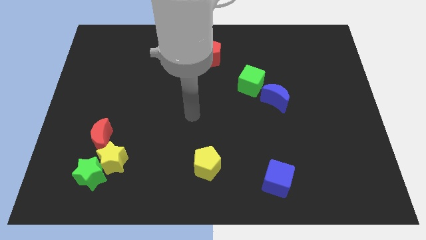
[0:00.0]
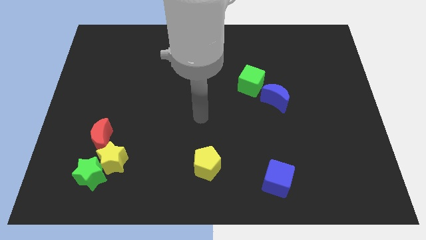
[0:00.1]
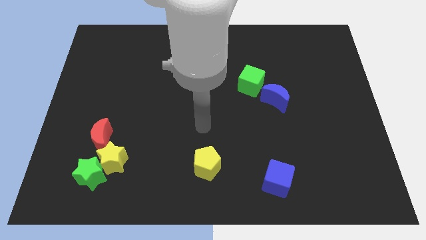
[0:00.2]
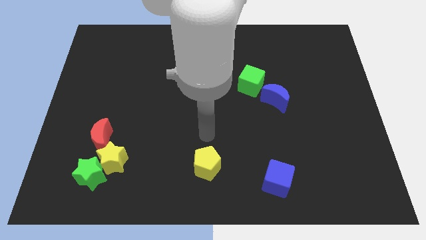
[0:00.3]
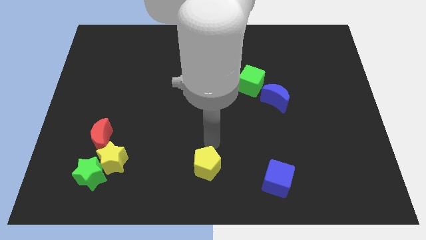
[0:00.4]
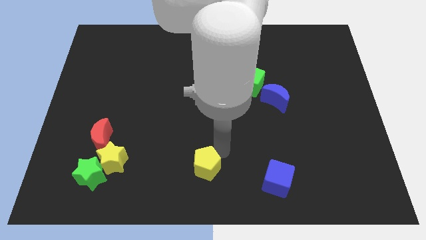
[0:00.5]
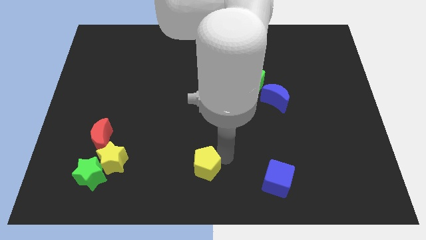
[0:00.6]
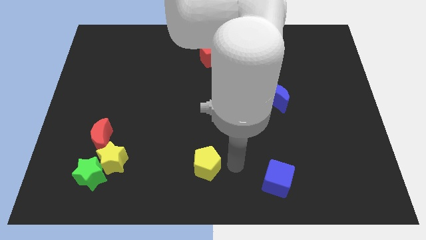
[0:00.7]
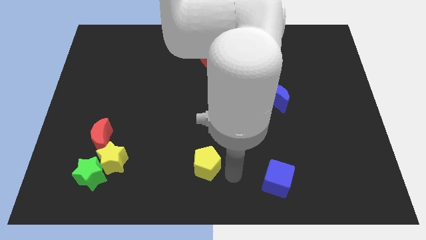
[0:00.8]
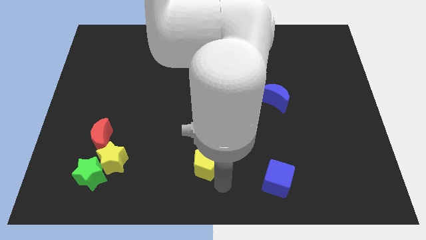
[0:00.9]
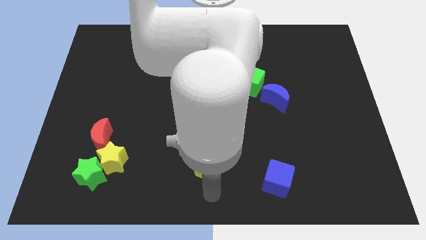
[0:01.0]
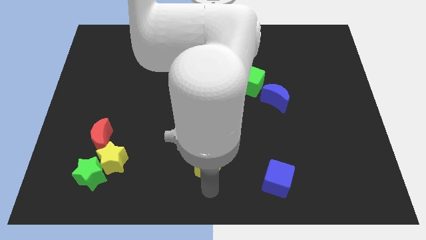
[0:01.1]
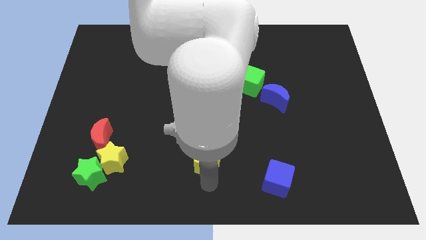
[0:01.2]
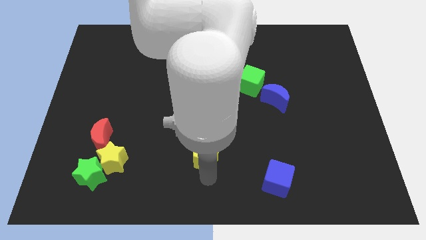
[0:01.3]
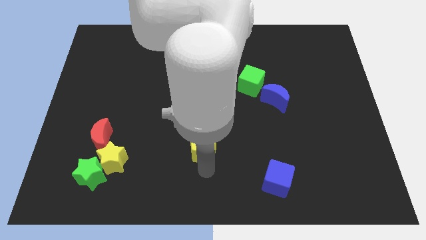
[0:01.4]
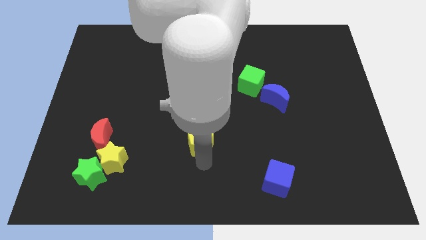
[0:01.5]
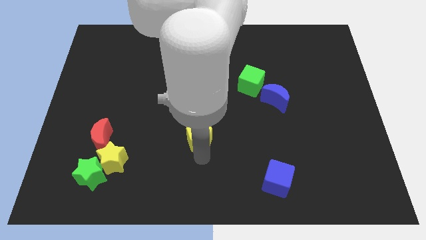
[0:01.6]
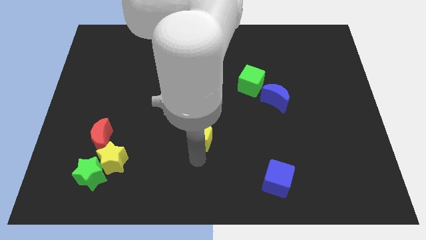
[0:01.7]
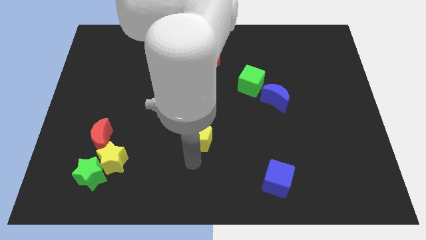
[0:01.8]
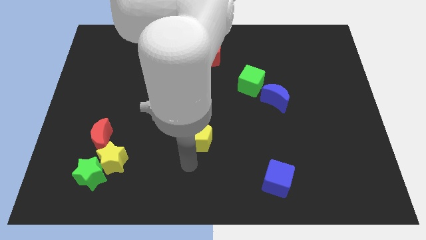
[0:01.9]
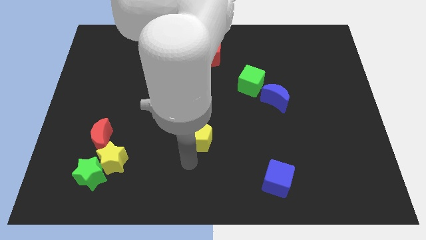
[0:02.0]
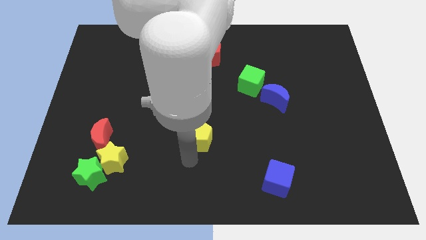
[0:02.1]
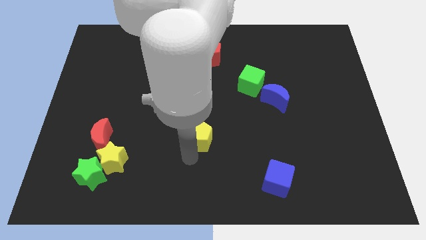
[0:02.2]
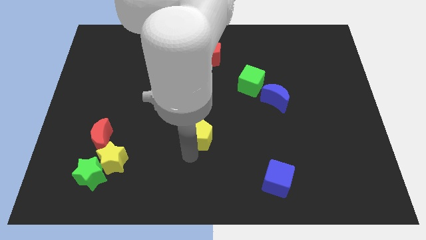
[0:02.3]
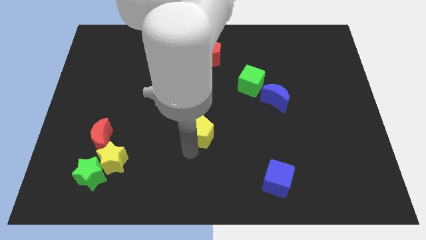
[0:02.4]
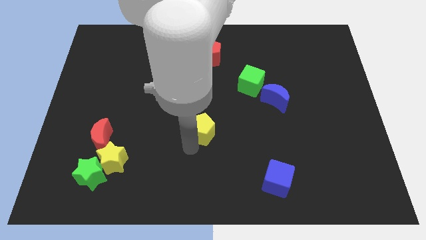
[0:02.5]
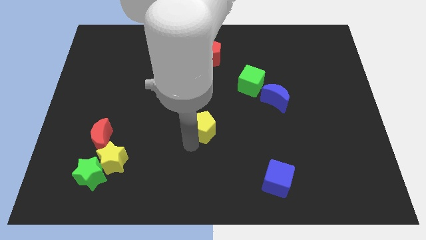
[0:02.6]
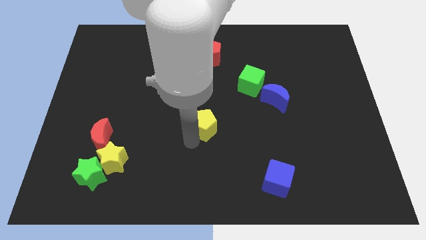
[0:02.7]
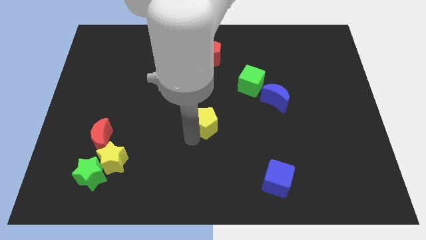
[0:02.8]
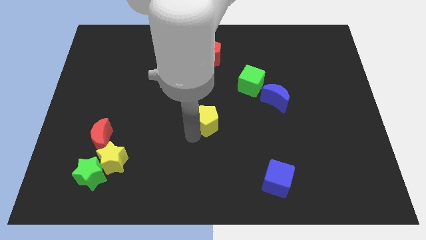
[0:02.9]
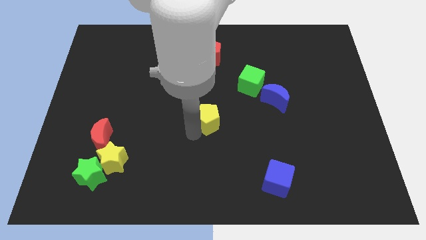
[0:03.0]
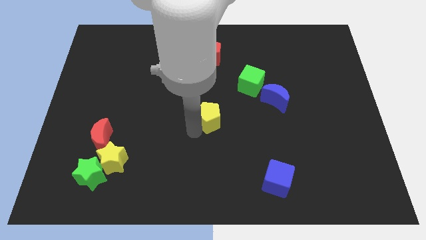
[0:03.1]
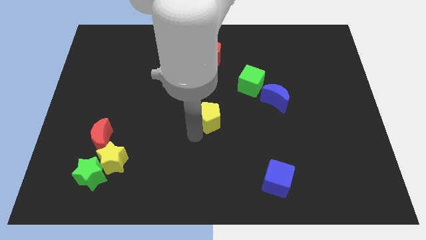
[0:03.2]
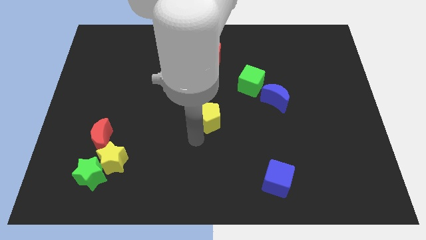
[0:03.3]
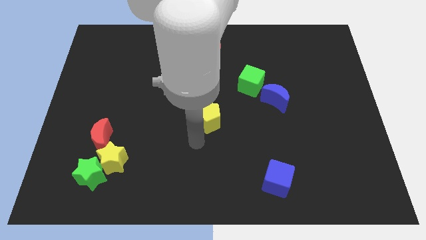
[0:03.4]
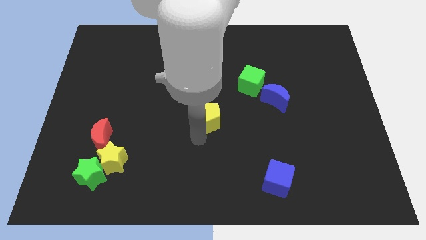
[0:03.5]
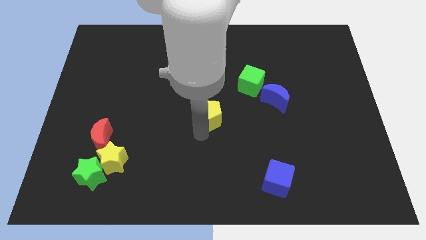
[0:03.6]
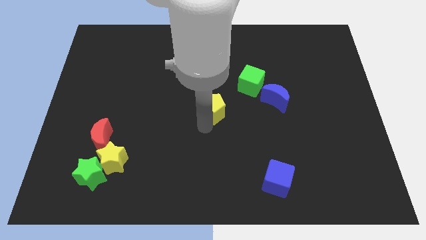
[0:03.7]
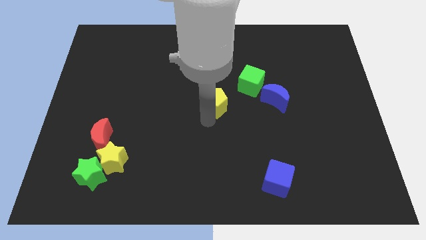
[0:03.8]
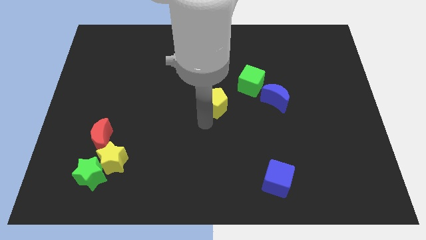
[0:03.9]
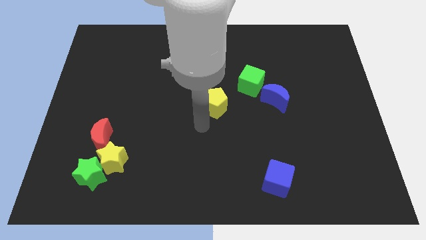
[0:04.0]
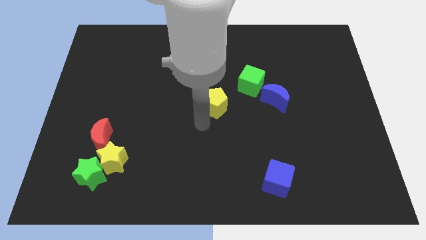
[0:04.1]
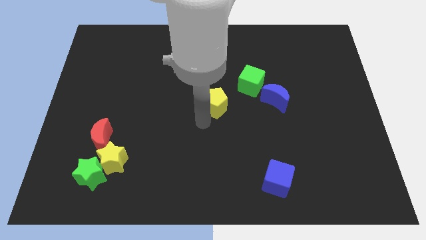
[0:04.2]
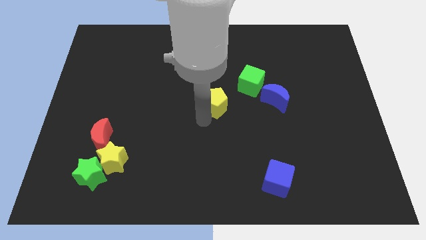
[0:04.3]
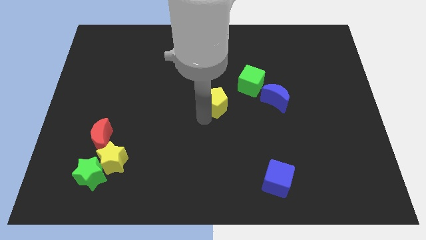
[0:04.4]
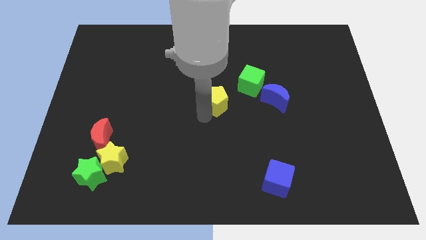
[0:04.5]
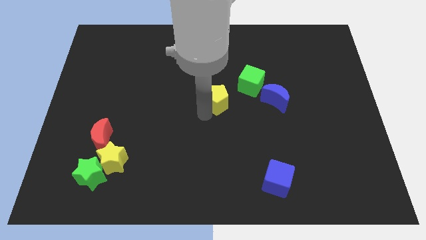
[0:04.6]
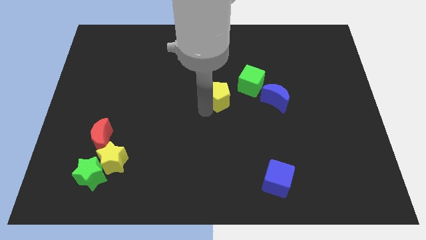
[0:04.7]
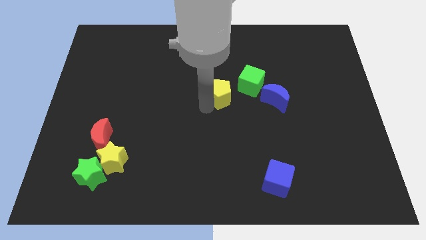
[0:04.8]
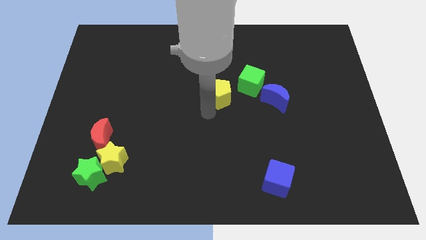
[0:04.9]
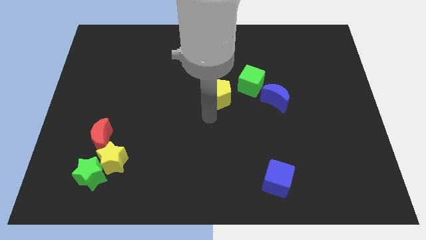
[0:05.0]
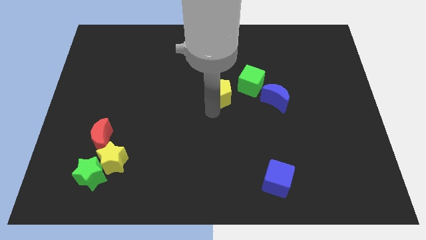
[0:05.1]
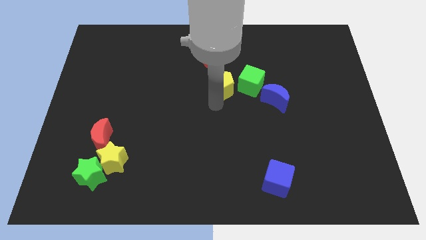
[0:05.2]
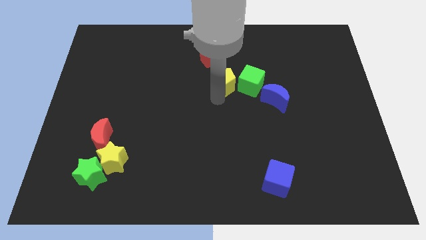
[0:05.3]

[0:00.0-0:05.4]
slide the yellow pentagon to the bottom right of the red pentagon

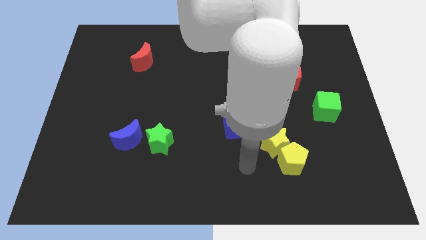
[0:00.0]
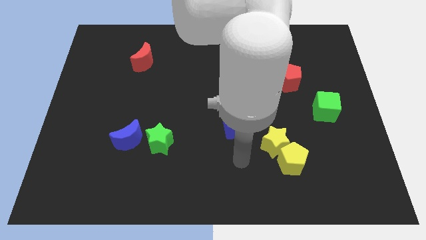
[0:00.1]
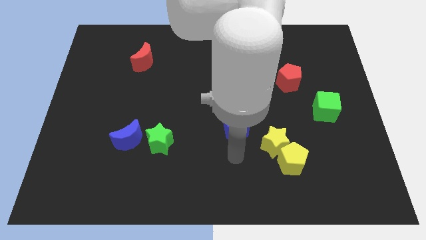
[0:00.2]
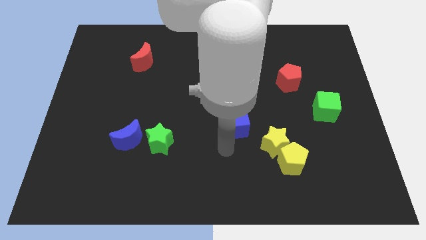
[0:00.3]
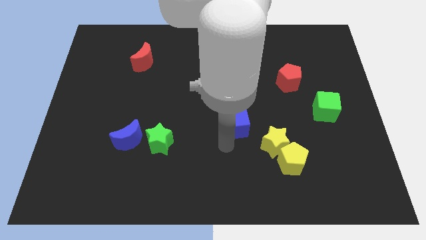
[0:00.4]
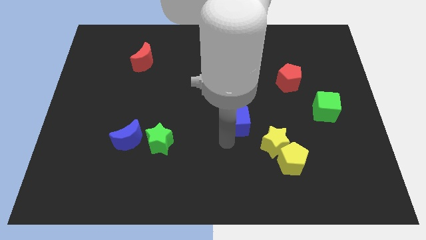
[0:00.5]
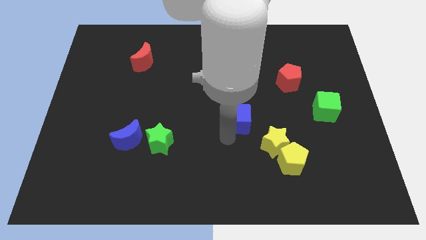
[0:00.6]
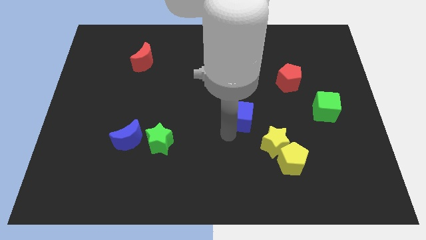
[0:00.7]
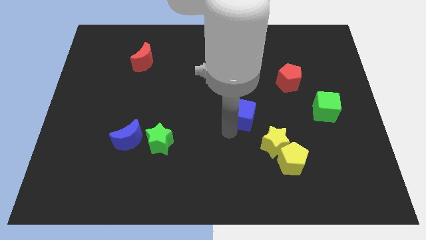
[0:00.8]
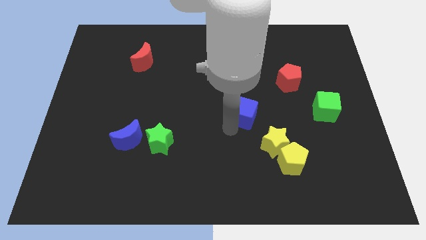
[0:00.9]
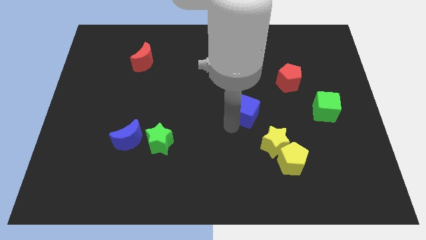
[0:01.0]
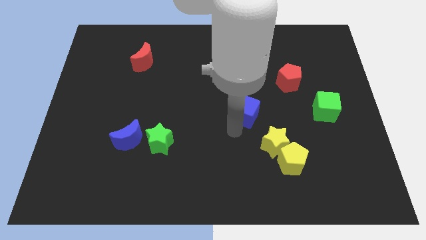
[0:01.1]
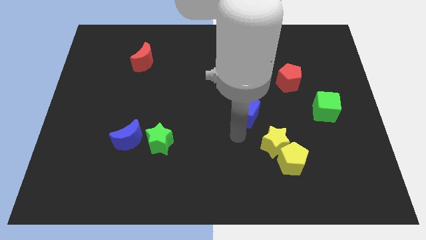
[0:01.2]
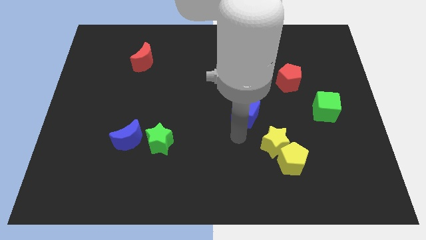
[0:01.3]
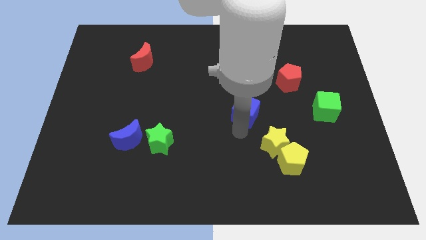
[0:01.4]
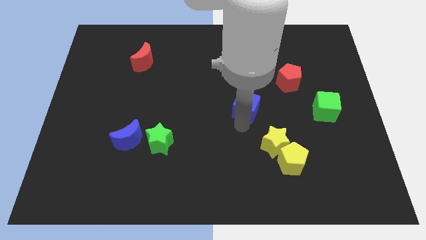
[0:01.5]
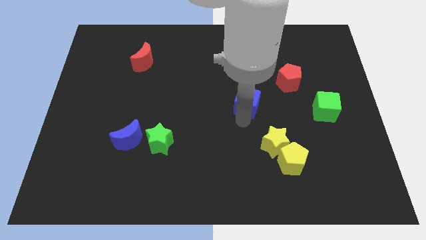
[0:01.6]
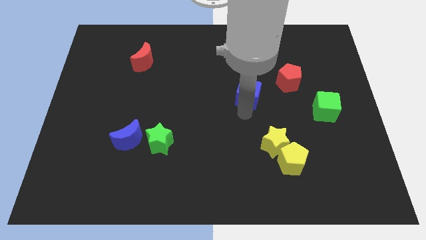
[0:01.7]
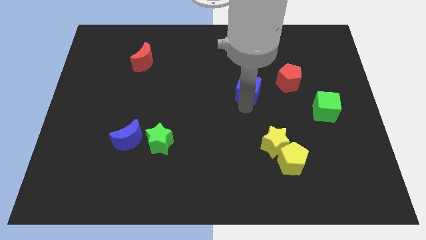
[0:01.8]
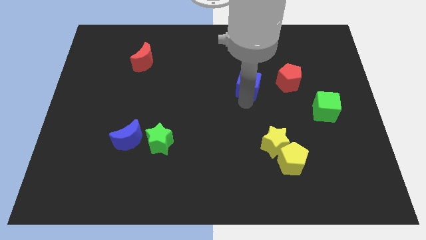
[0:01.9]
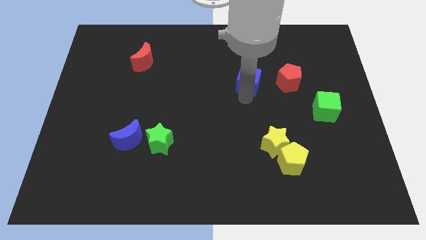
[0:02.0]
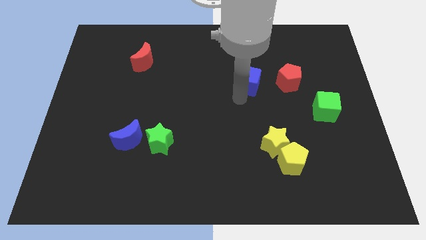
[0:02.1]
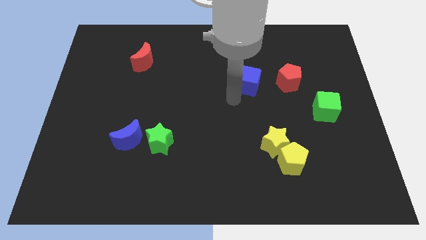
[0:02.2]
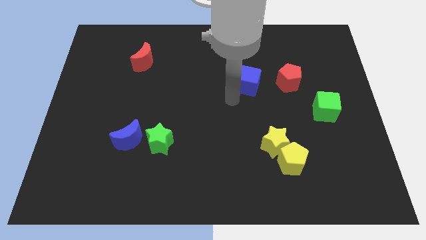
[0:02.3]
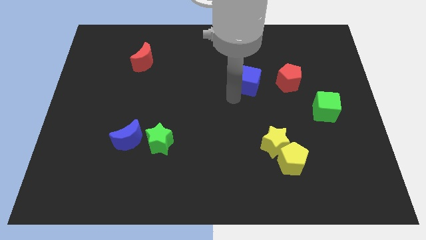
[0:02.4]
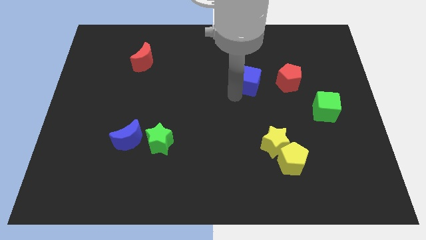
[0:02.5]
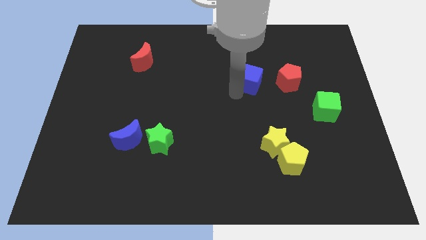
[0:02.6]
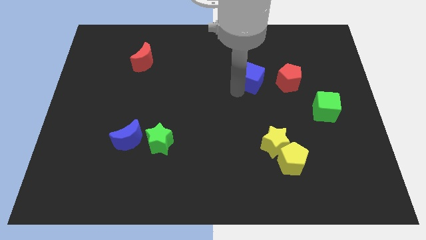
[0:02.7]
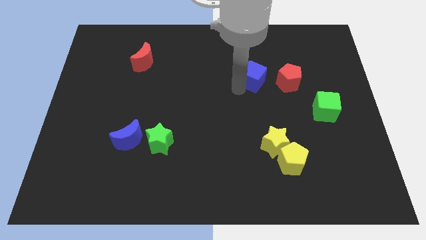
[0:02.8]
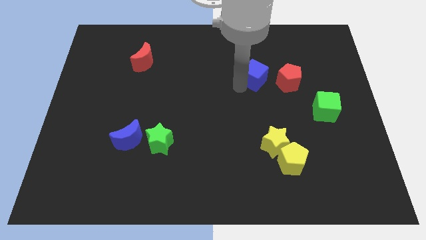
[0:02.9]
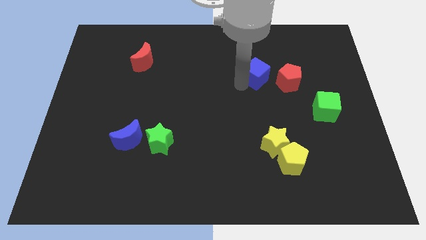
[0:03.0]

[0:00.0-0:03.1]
slide the blue cube diagonally up and to the left of the red pentagon
